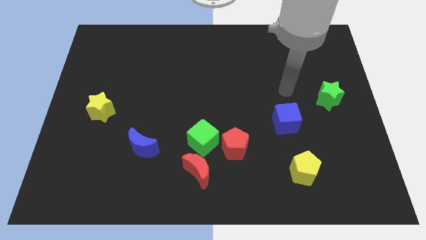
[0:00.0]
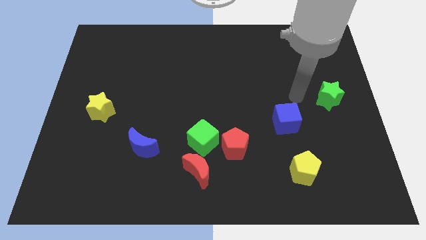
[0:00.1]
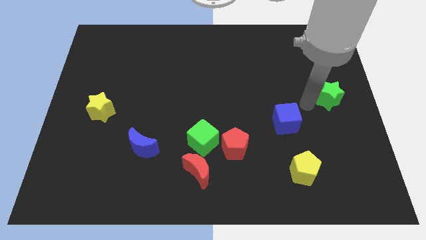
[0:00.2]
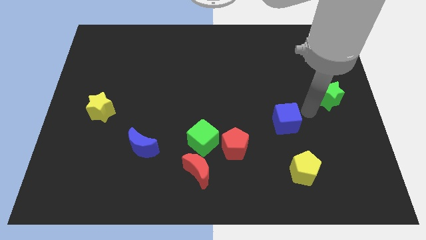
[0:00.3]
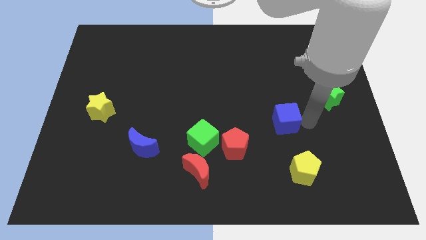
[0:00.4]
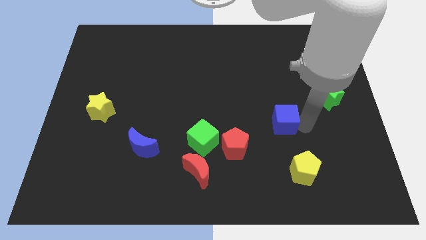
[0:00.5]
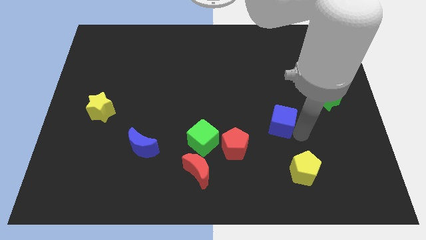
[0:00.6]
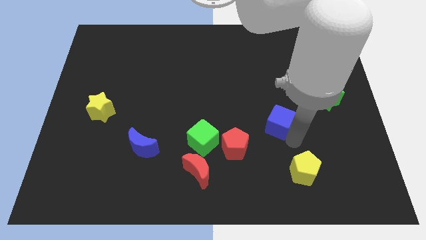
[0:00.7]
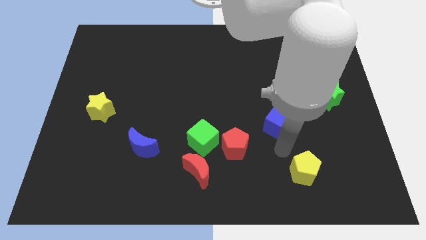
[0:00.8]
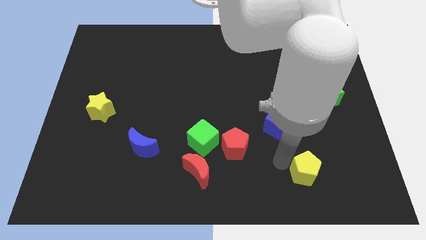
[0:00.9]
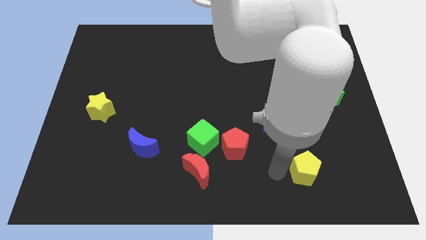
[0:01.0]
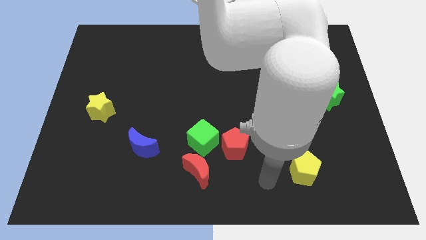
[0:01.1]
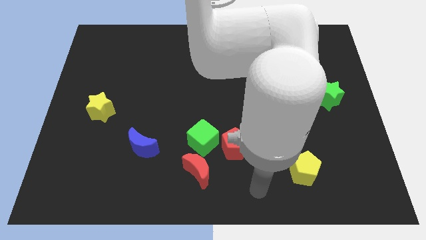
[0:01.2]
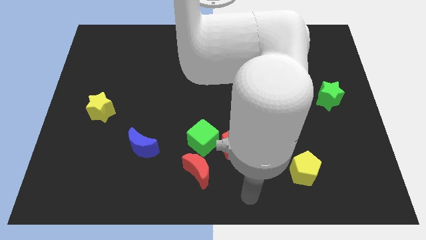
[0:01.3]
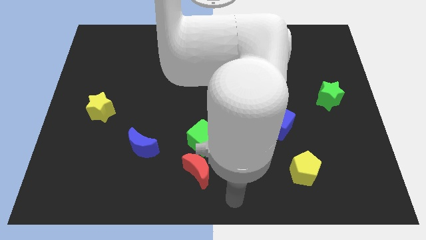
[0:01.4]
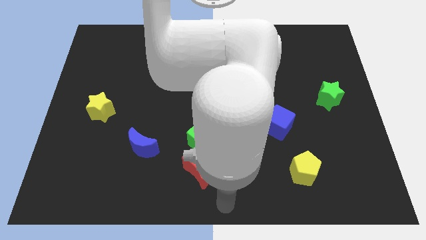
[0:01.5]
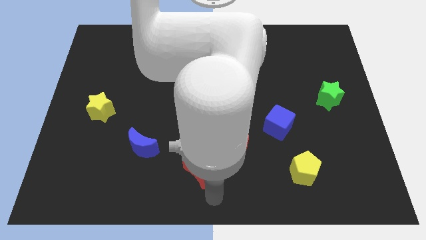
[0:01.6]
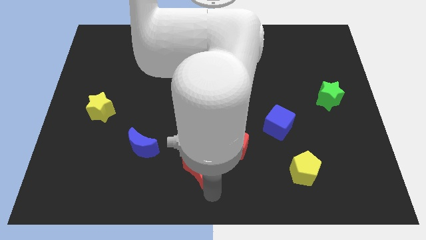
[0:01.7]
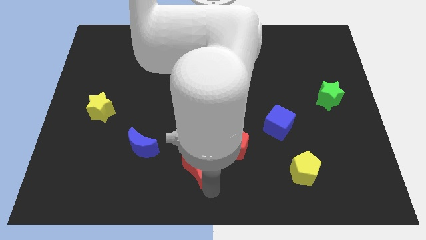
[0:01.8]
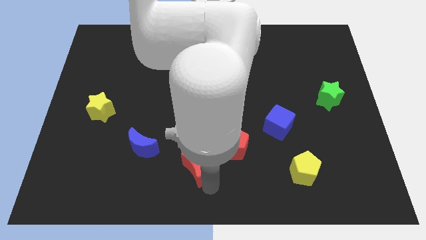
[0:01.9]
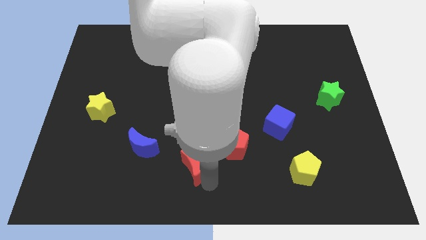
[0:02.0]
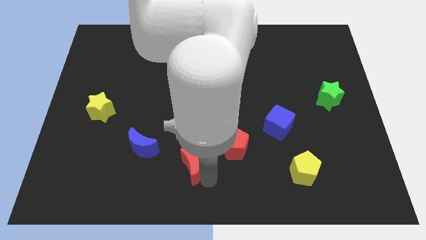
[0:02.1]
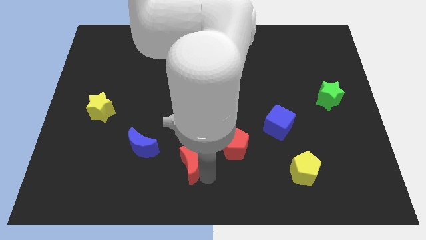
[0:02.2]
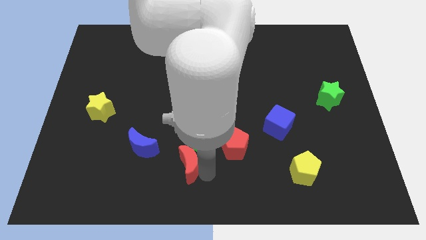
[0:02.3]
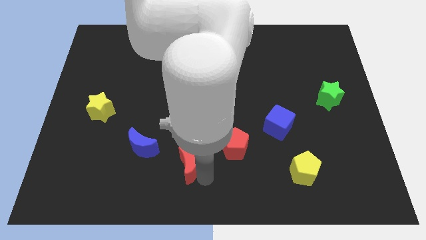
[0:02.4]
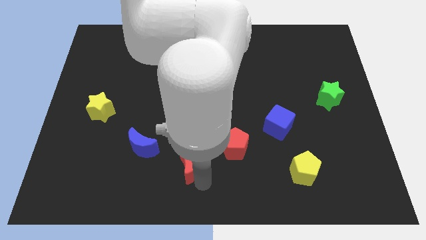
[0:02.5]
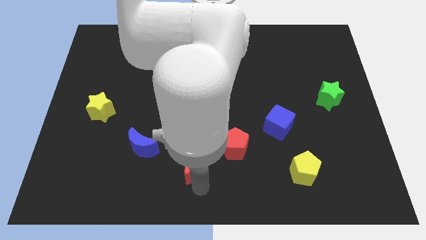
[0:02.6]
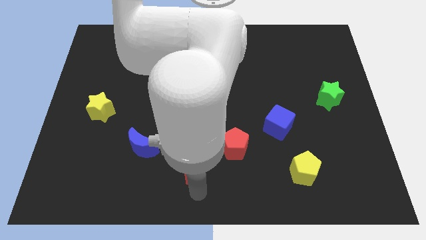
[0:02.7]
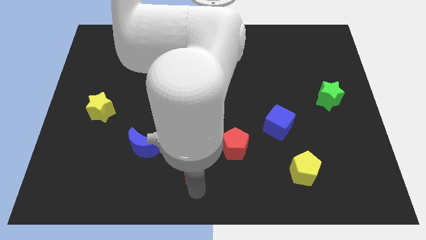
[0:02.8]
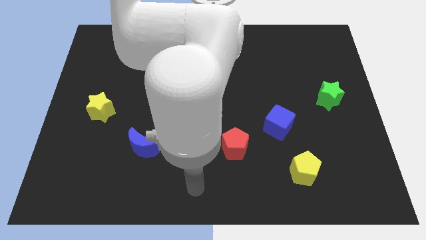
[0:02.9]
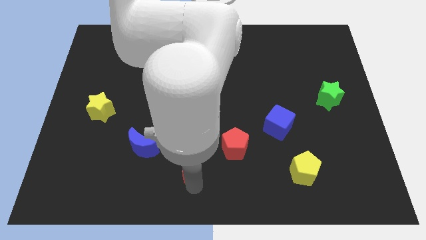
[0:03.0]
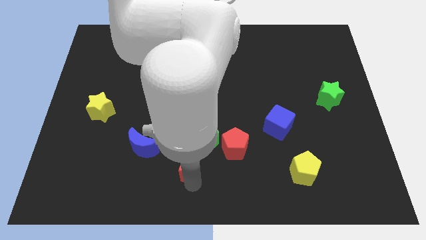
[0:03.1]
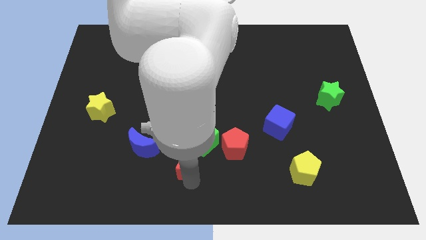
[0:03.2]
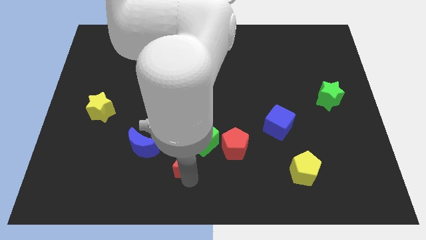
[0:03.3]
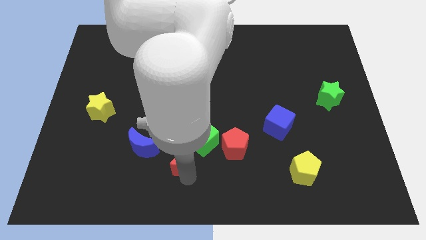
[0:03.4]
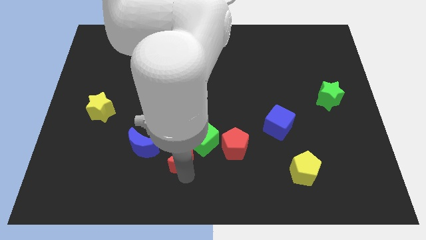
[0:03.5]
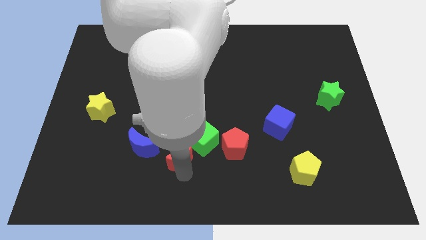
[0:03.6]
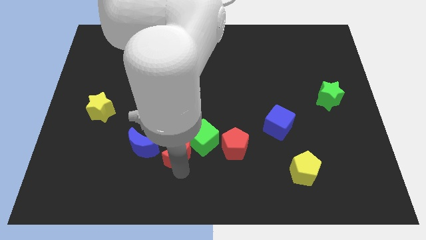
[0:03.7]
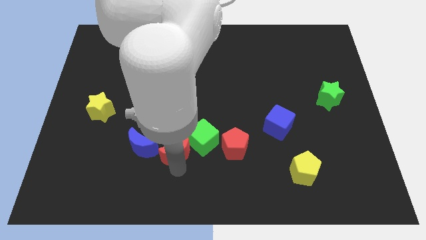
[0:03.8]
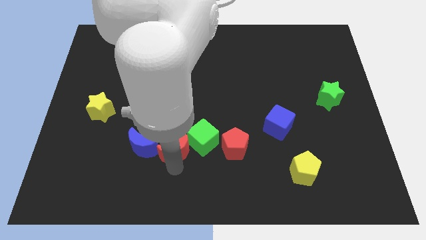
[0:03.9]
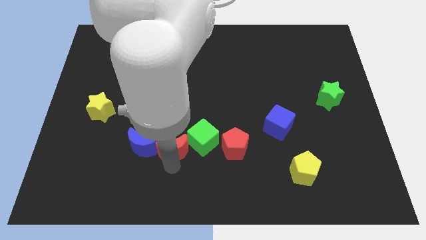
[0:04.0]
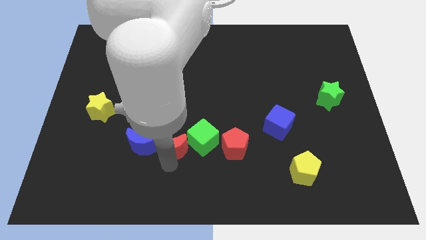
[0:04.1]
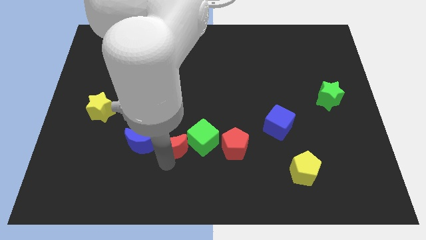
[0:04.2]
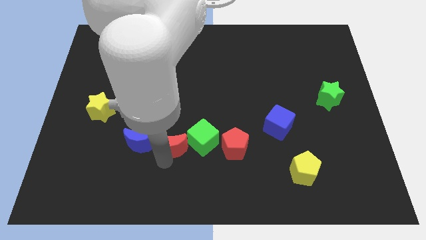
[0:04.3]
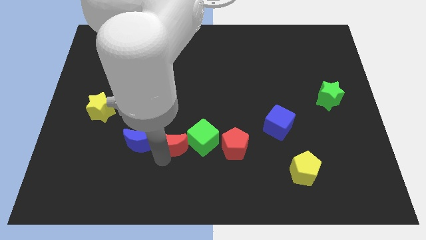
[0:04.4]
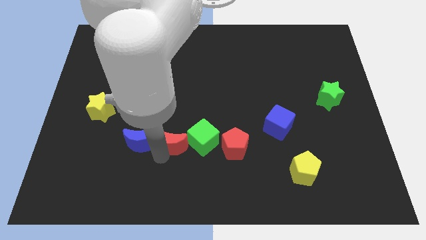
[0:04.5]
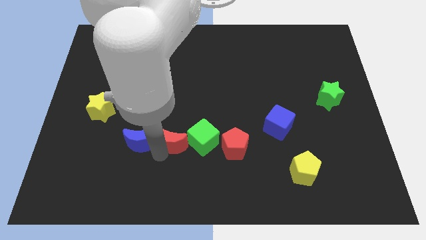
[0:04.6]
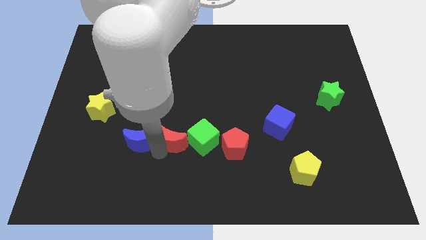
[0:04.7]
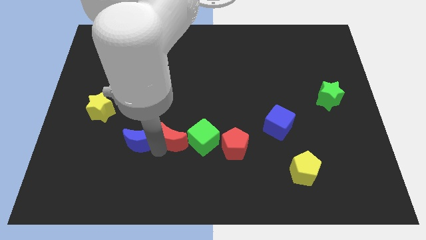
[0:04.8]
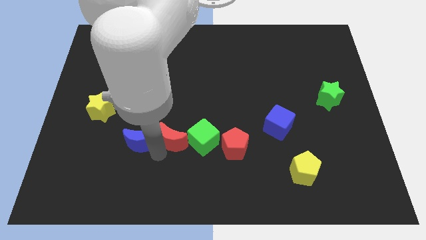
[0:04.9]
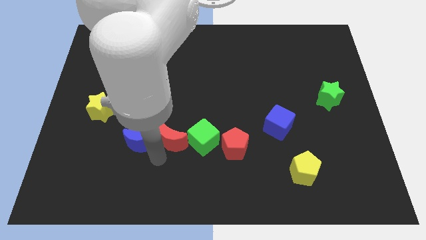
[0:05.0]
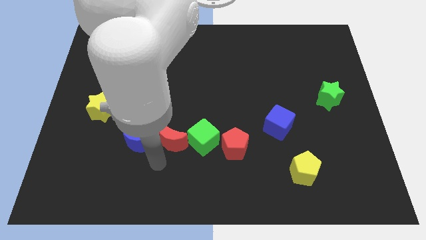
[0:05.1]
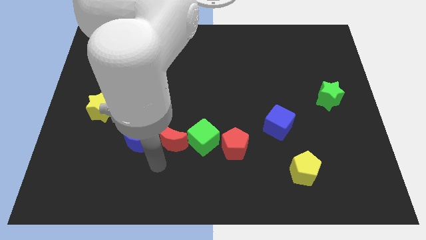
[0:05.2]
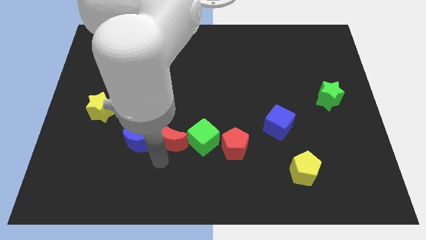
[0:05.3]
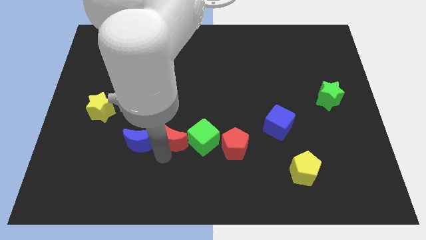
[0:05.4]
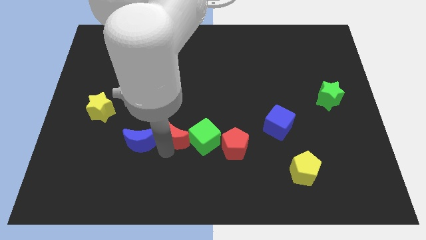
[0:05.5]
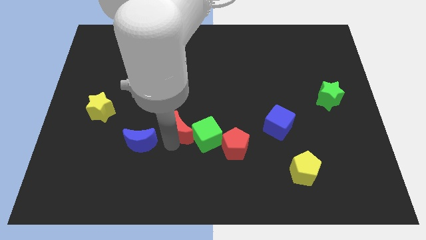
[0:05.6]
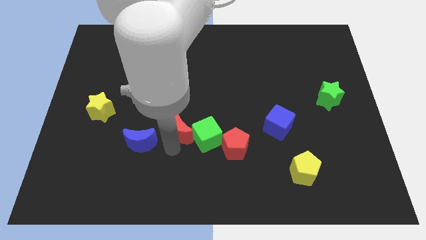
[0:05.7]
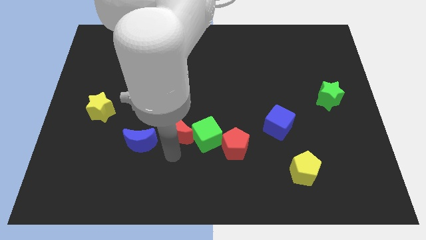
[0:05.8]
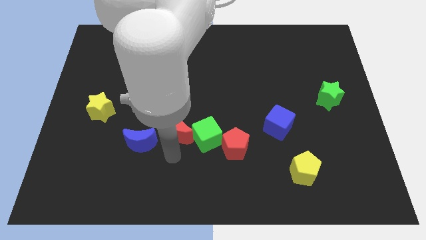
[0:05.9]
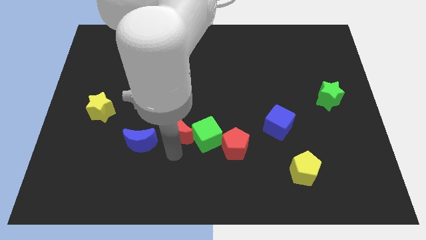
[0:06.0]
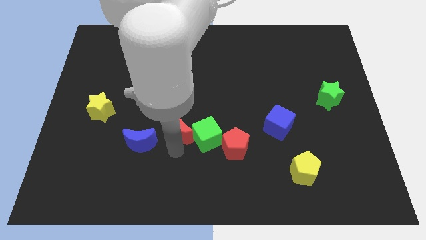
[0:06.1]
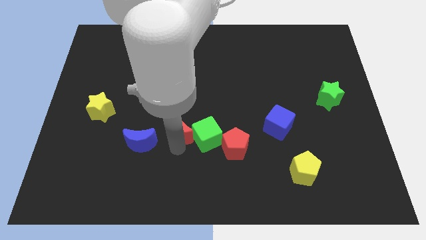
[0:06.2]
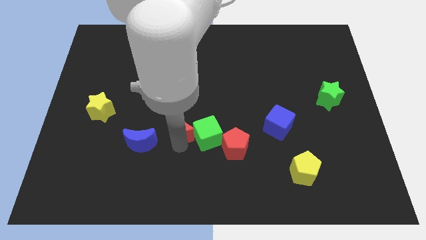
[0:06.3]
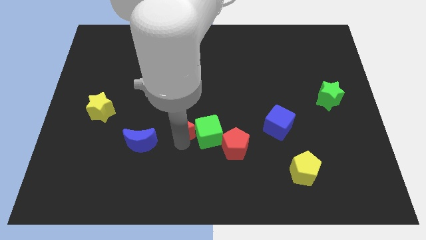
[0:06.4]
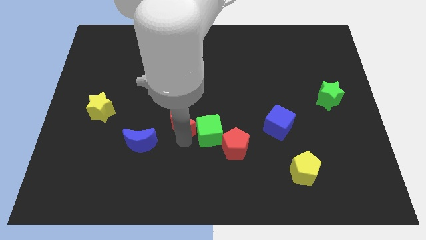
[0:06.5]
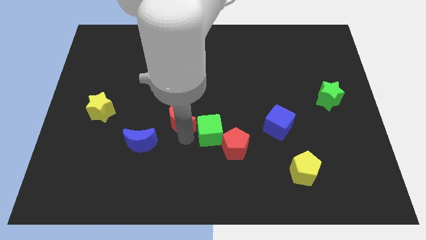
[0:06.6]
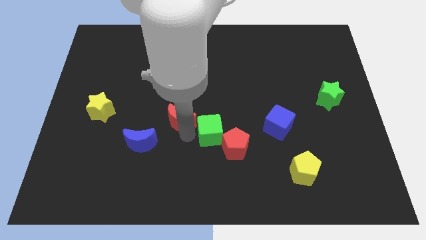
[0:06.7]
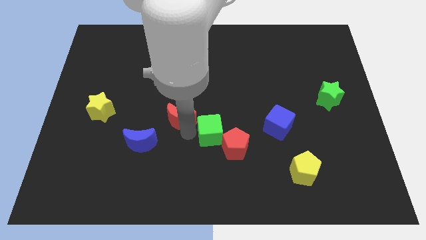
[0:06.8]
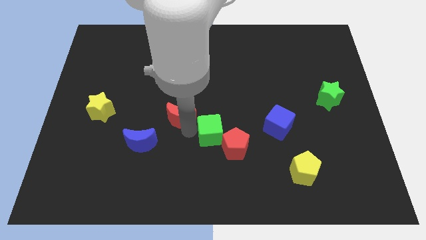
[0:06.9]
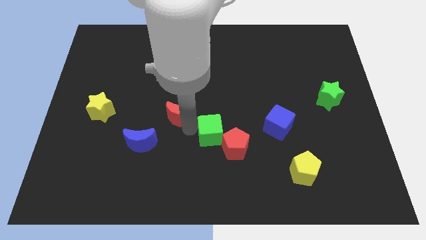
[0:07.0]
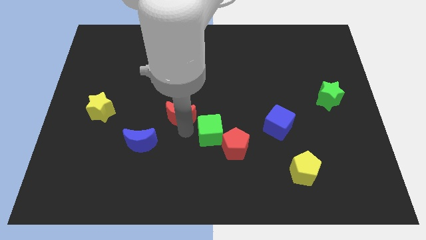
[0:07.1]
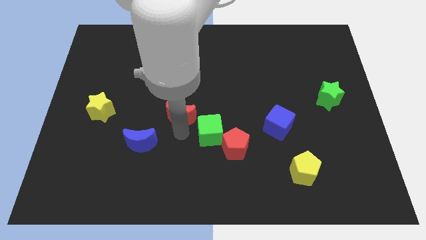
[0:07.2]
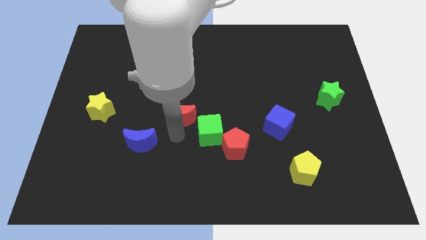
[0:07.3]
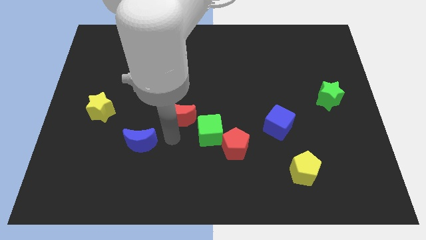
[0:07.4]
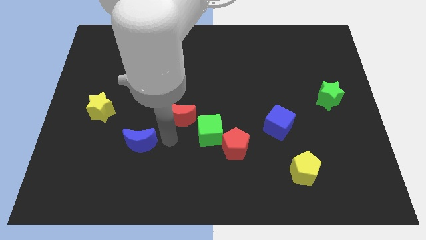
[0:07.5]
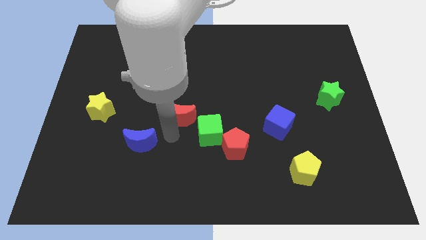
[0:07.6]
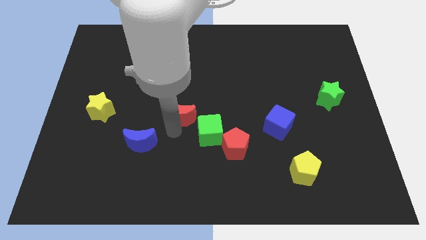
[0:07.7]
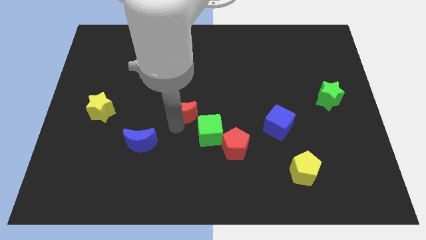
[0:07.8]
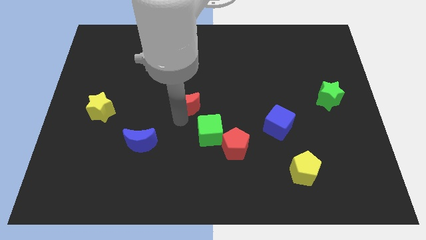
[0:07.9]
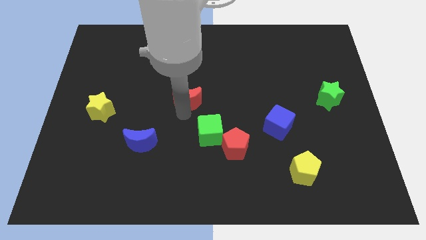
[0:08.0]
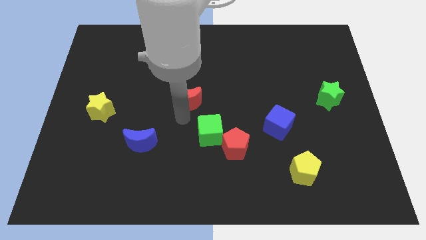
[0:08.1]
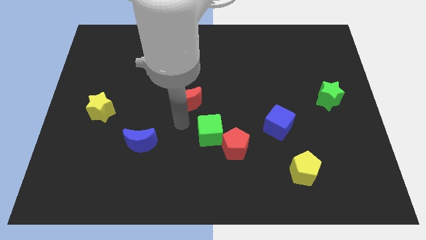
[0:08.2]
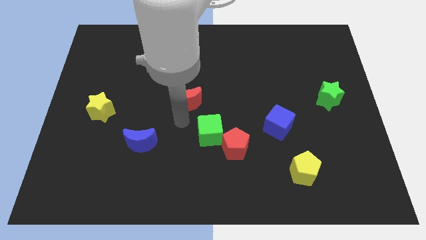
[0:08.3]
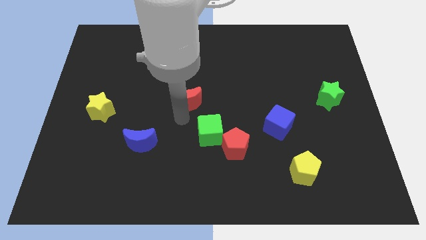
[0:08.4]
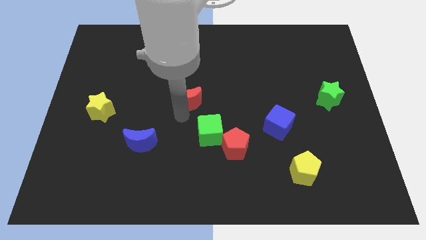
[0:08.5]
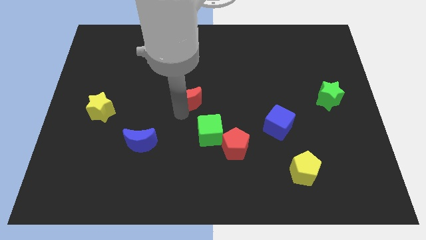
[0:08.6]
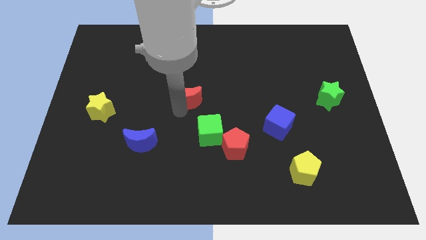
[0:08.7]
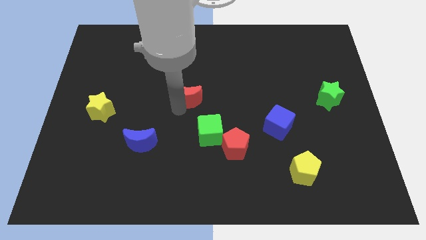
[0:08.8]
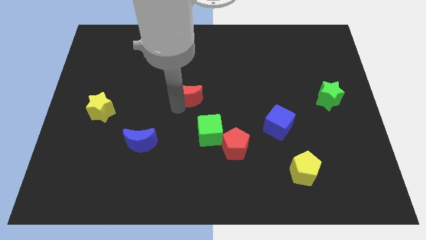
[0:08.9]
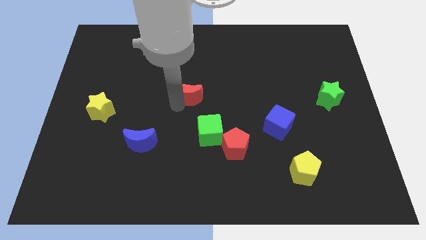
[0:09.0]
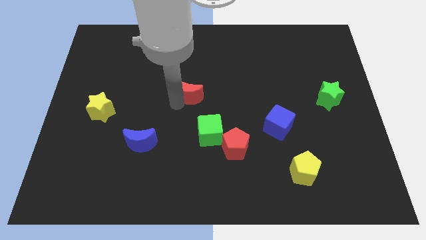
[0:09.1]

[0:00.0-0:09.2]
move the red moon up
